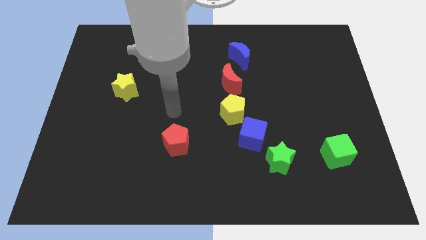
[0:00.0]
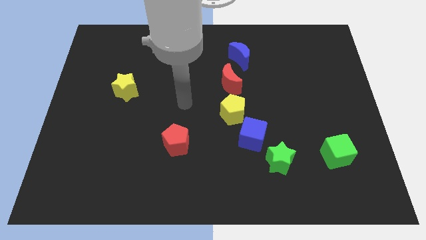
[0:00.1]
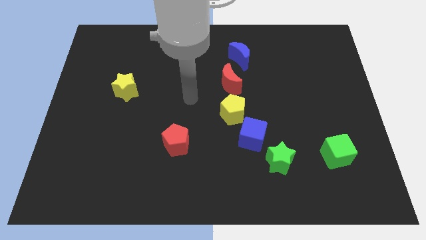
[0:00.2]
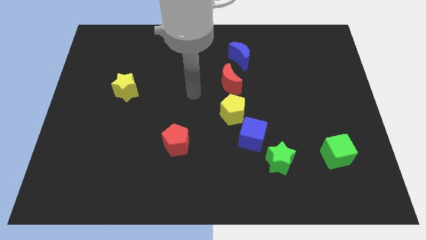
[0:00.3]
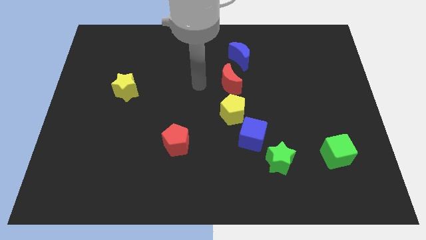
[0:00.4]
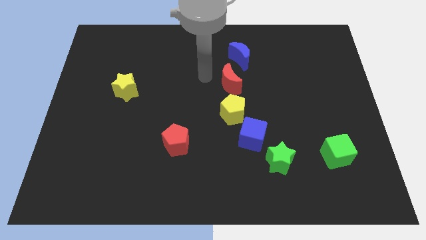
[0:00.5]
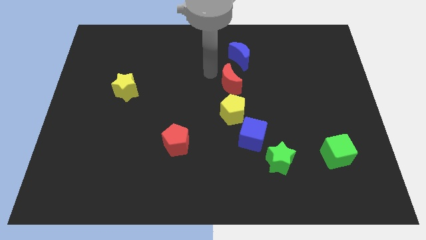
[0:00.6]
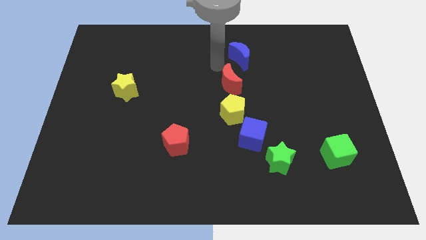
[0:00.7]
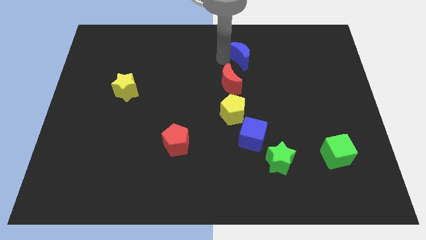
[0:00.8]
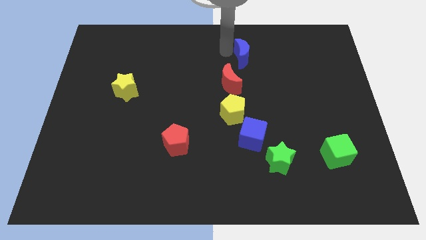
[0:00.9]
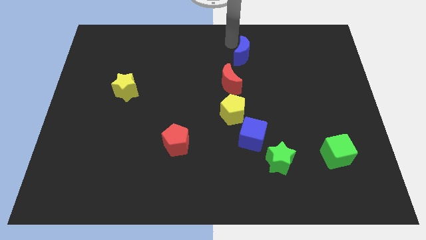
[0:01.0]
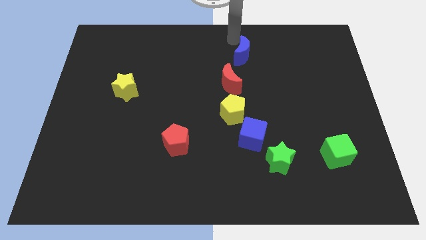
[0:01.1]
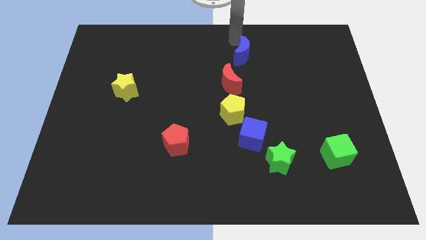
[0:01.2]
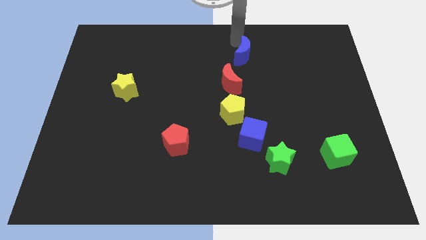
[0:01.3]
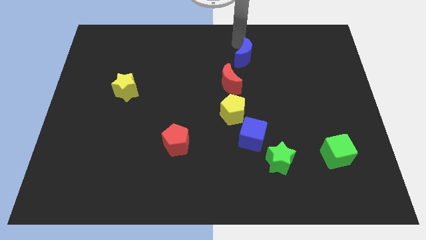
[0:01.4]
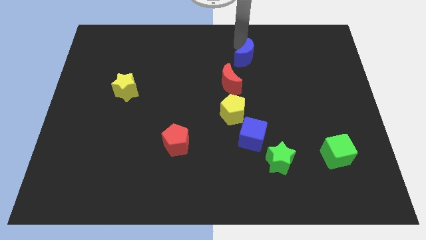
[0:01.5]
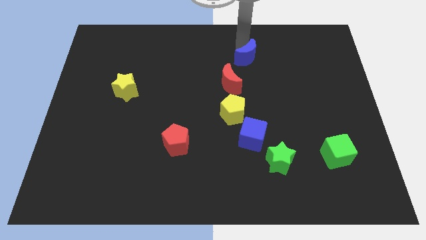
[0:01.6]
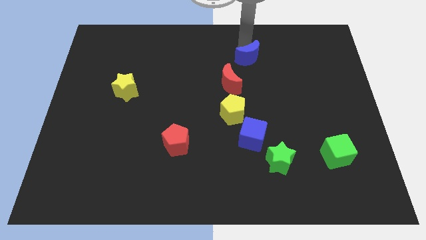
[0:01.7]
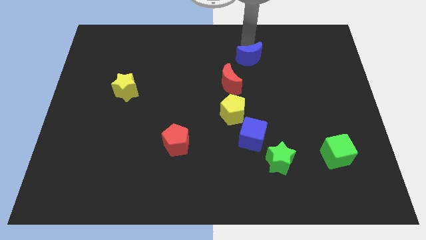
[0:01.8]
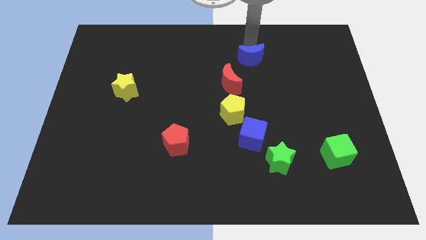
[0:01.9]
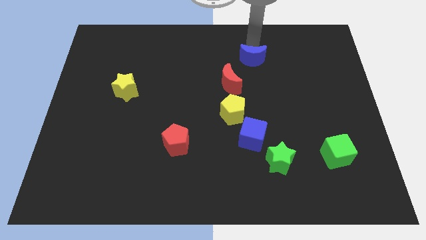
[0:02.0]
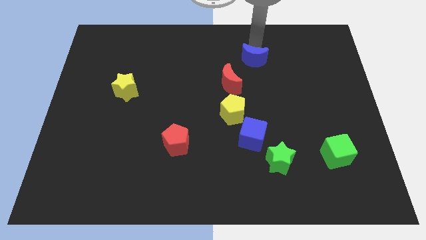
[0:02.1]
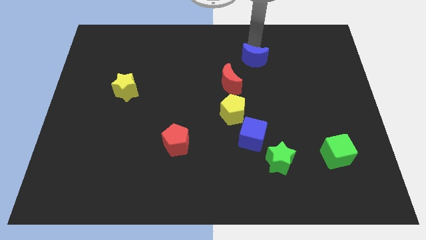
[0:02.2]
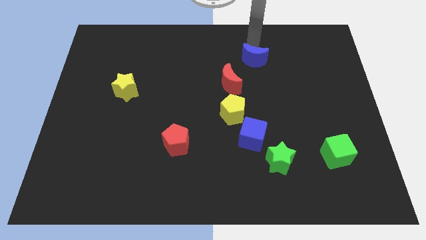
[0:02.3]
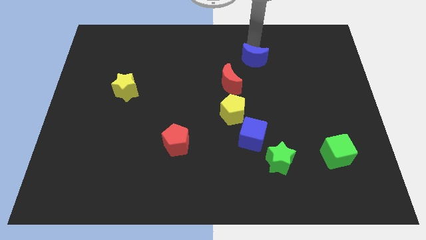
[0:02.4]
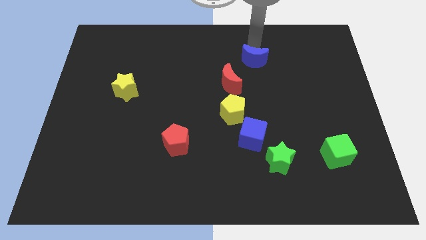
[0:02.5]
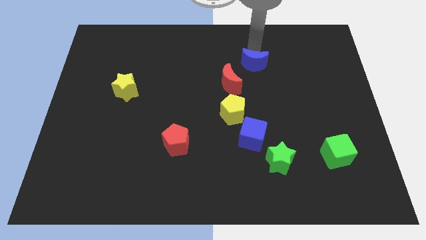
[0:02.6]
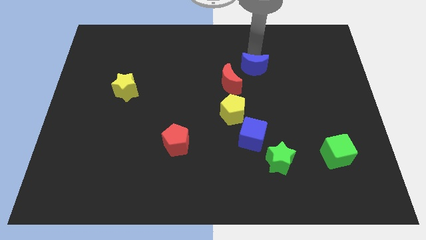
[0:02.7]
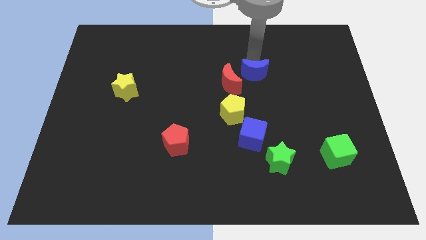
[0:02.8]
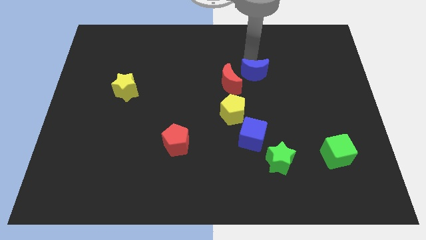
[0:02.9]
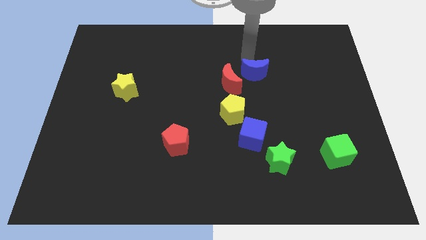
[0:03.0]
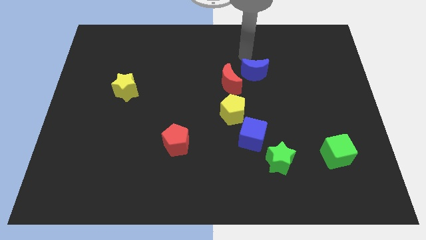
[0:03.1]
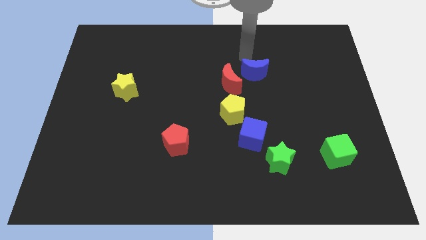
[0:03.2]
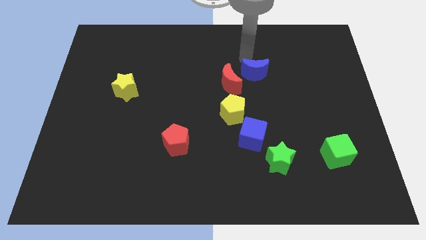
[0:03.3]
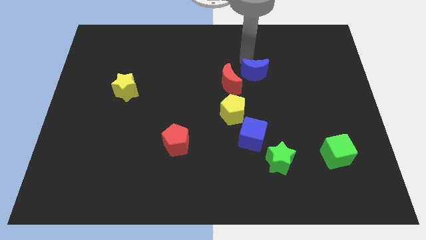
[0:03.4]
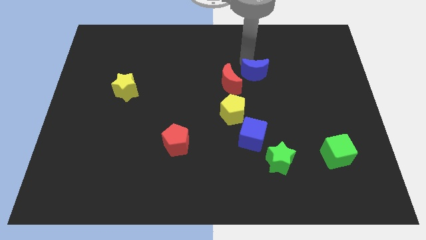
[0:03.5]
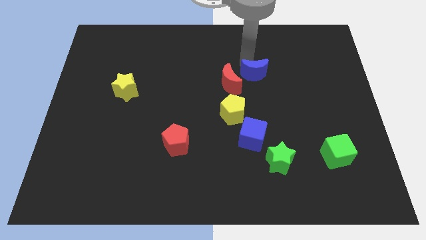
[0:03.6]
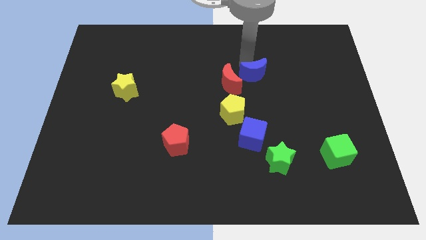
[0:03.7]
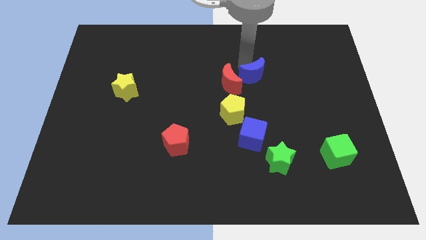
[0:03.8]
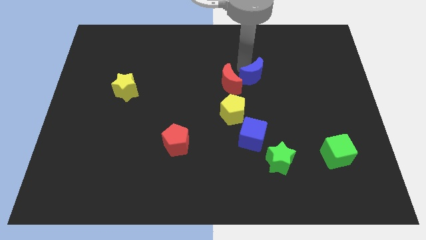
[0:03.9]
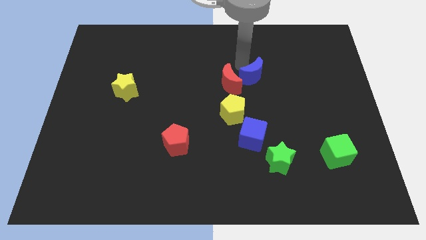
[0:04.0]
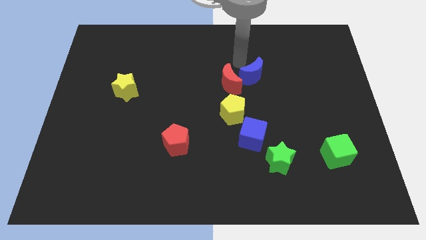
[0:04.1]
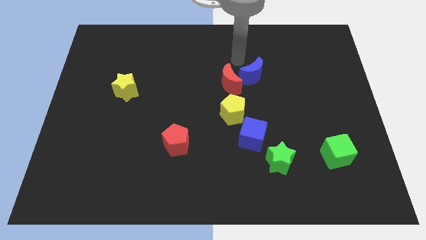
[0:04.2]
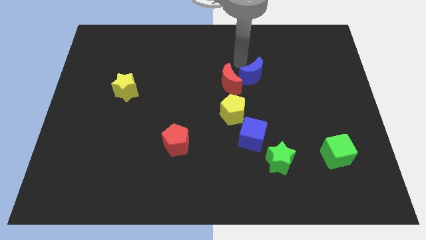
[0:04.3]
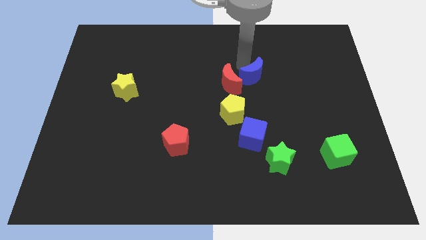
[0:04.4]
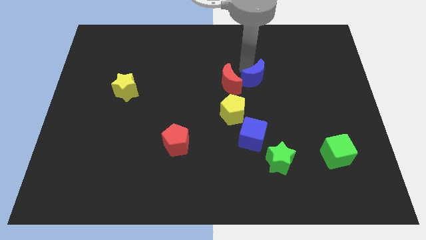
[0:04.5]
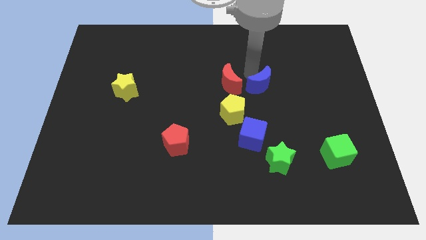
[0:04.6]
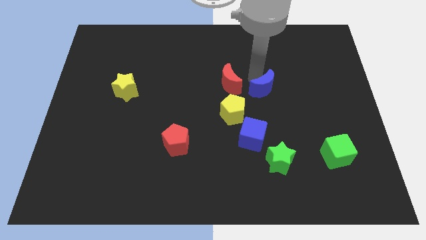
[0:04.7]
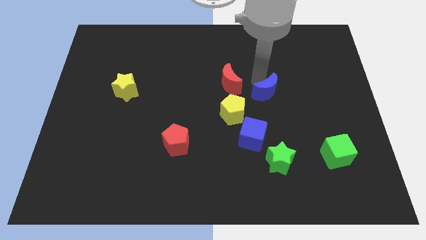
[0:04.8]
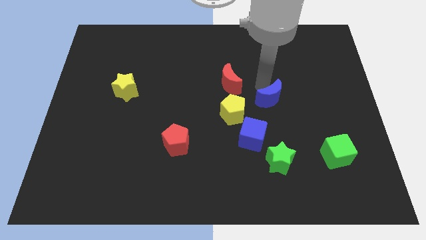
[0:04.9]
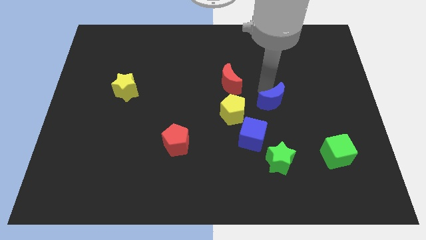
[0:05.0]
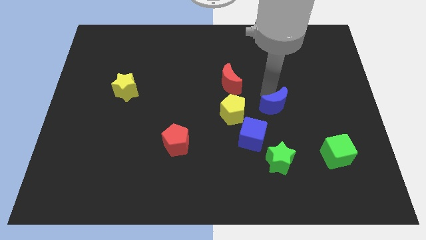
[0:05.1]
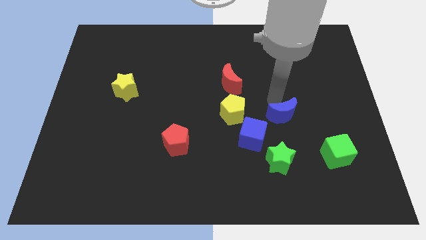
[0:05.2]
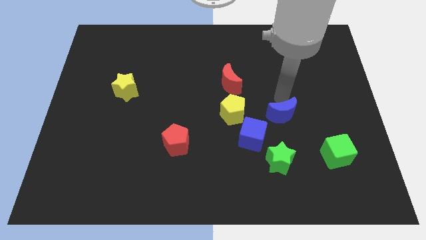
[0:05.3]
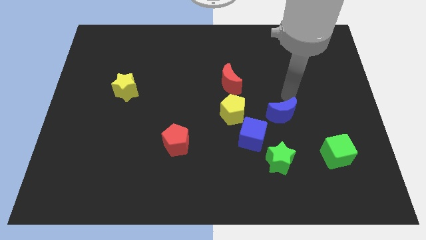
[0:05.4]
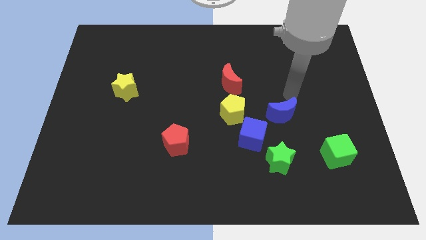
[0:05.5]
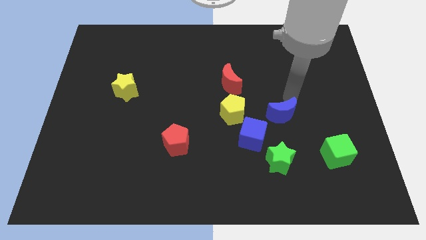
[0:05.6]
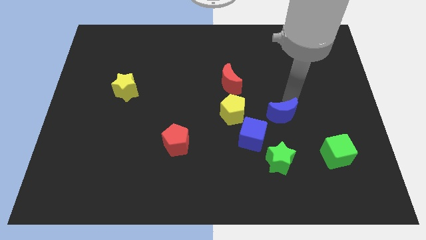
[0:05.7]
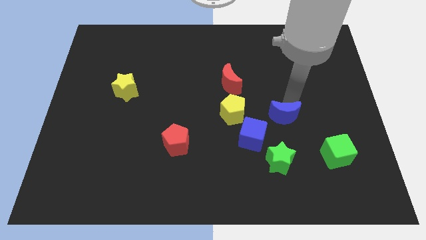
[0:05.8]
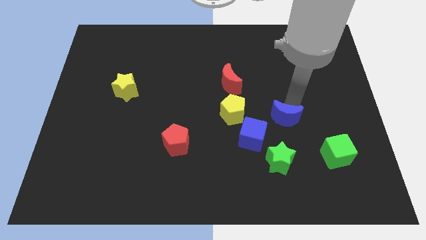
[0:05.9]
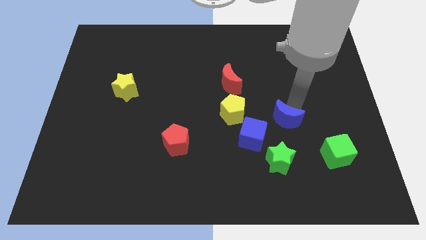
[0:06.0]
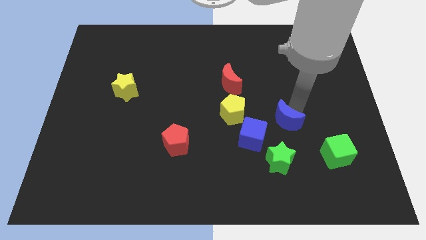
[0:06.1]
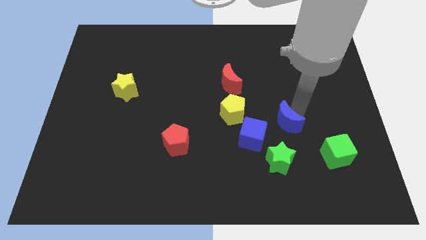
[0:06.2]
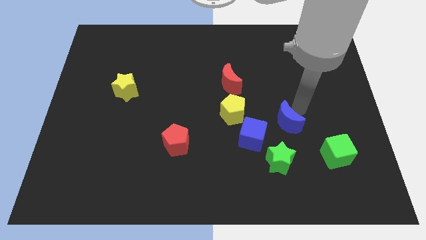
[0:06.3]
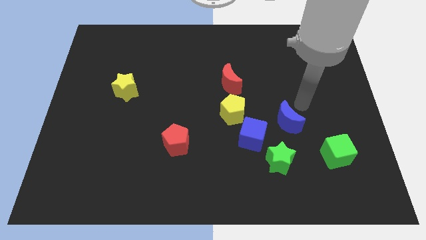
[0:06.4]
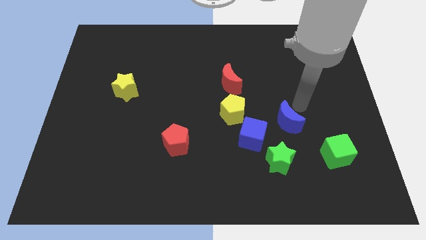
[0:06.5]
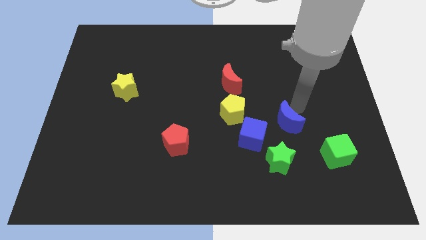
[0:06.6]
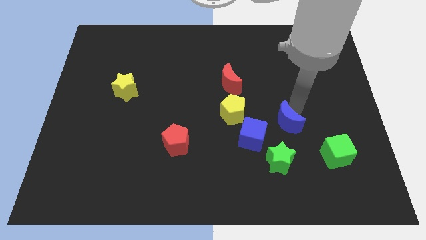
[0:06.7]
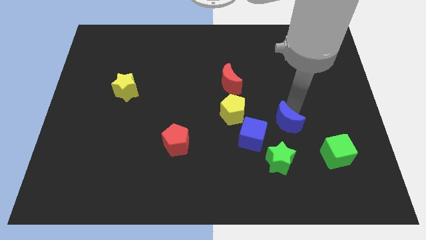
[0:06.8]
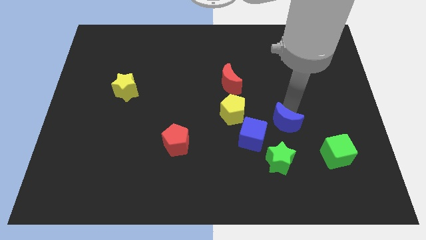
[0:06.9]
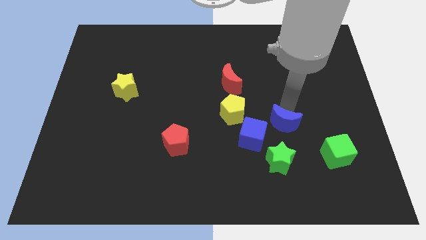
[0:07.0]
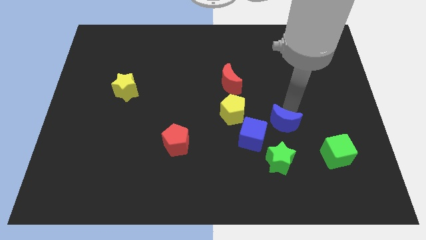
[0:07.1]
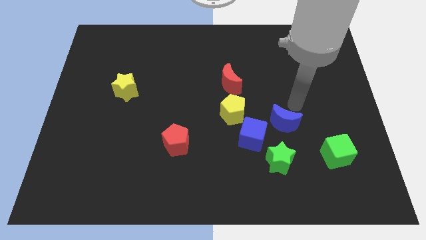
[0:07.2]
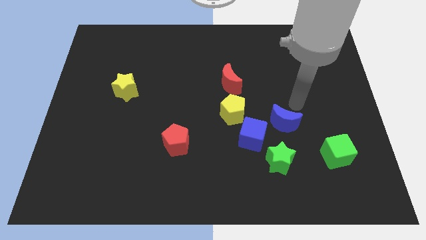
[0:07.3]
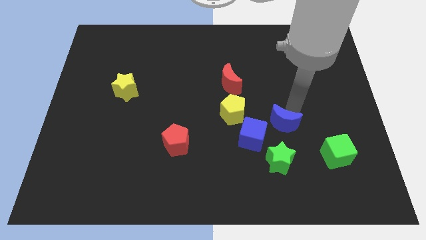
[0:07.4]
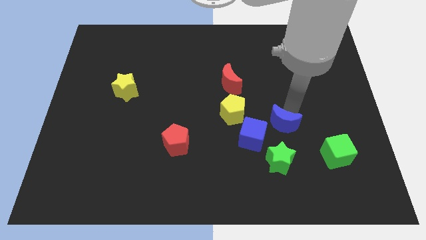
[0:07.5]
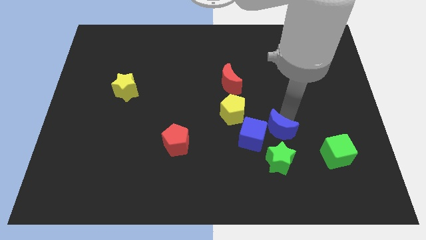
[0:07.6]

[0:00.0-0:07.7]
move the blue moon to the bottom right of the yellow pentagon
